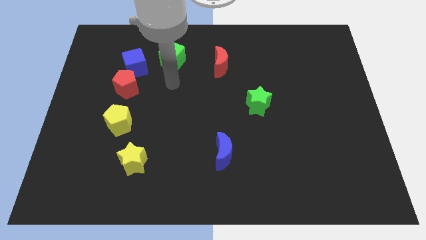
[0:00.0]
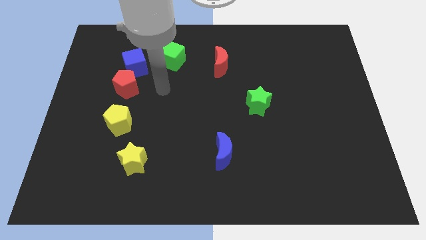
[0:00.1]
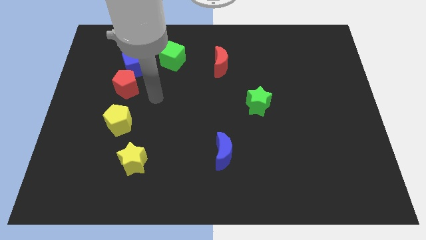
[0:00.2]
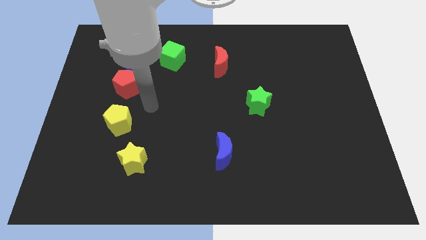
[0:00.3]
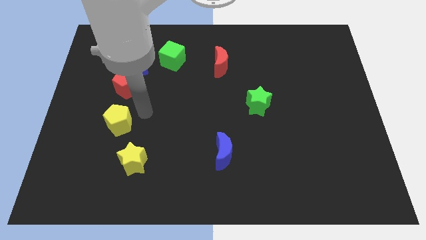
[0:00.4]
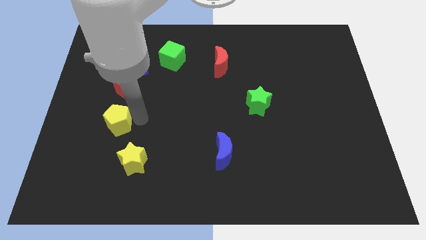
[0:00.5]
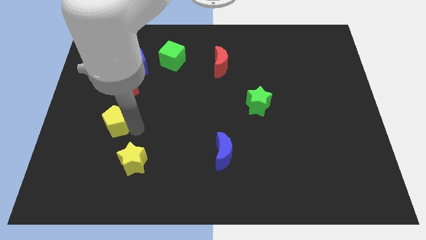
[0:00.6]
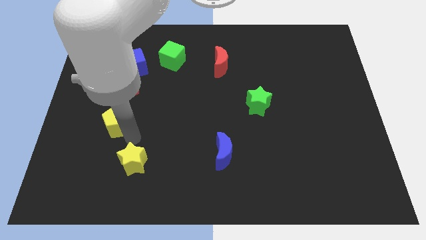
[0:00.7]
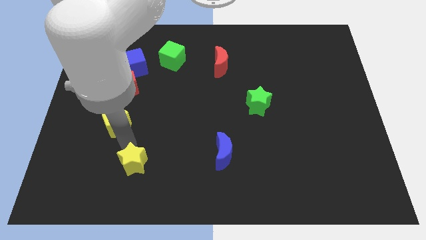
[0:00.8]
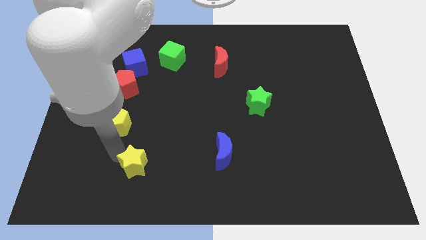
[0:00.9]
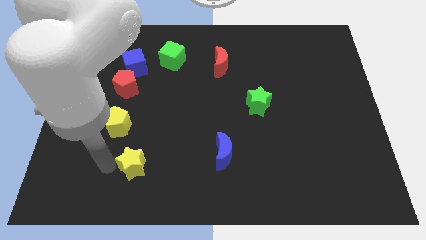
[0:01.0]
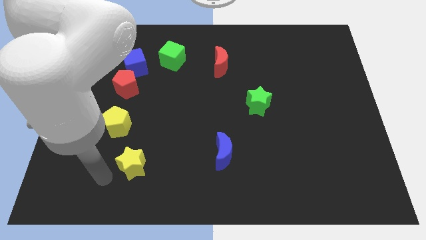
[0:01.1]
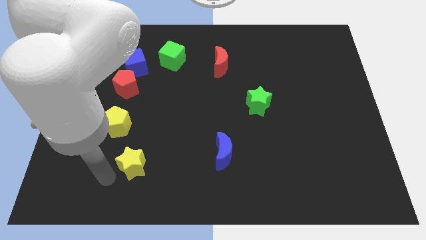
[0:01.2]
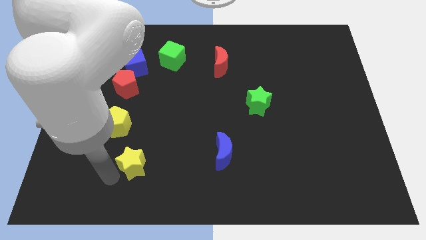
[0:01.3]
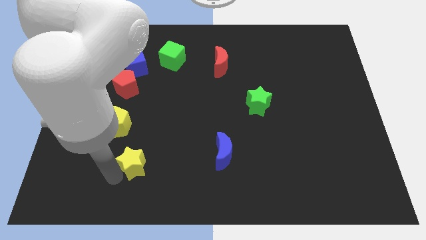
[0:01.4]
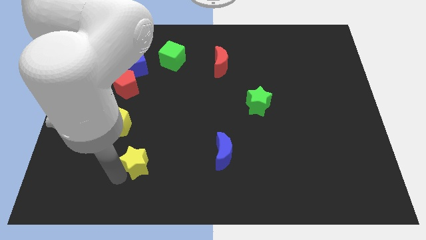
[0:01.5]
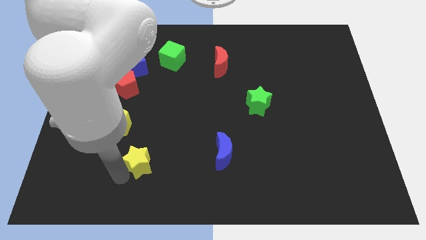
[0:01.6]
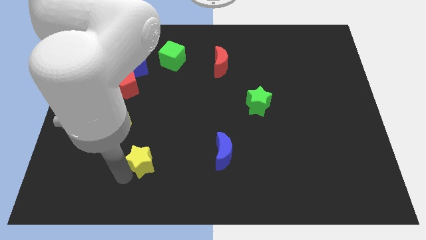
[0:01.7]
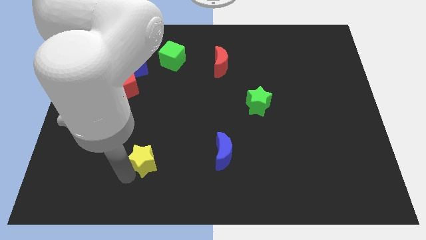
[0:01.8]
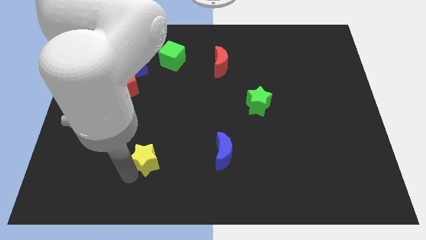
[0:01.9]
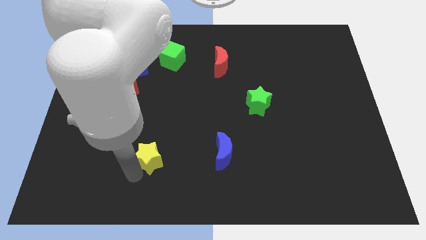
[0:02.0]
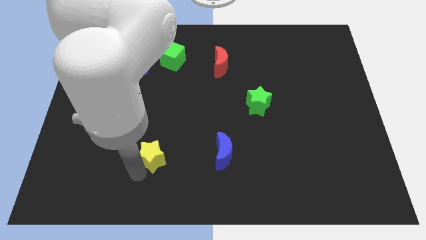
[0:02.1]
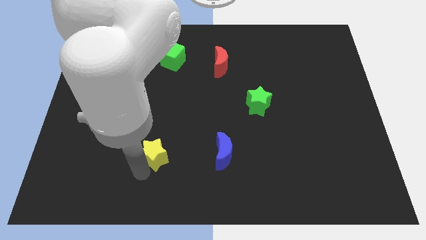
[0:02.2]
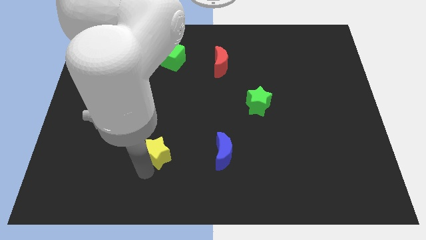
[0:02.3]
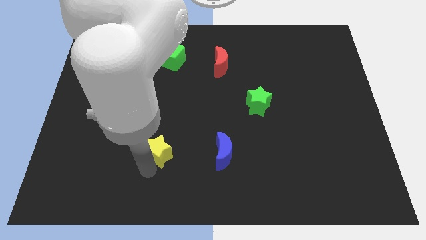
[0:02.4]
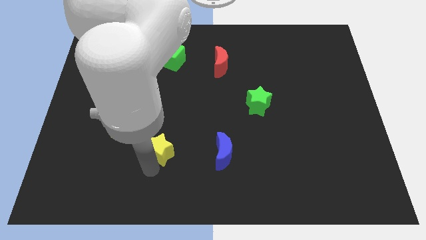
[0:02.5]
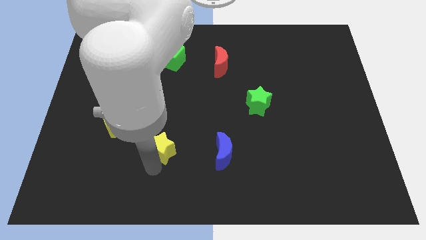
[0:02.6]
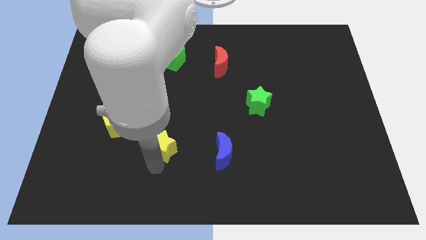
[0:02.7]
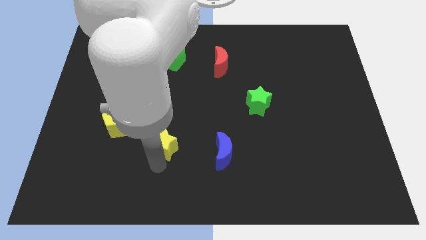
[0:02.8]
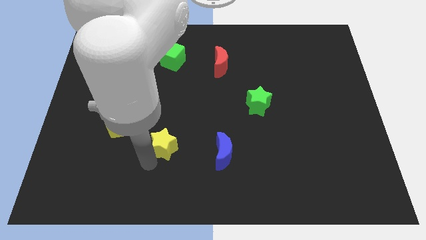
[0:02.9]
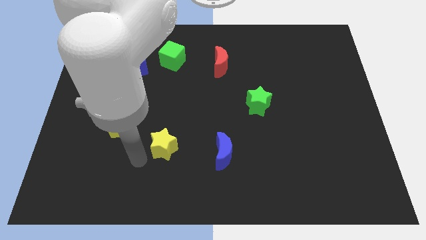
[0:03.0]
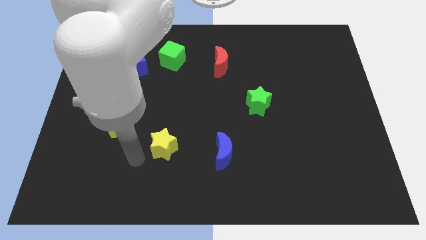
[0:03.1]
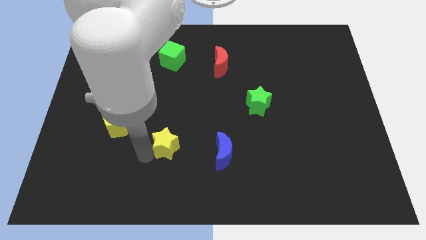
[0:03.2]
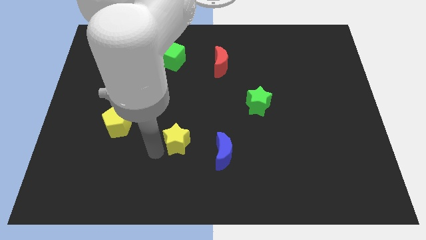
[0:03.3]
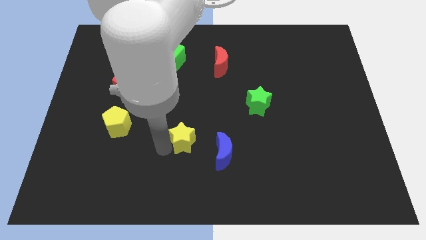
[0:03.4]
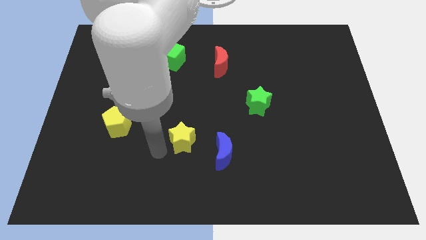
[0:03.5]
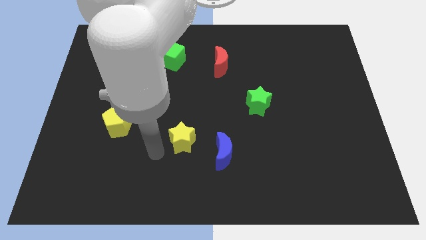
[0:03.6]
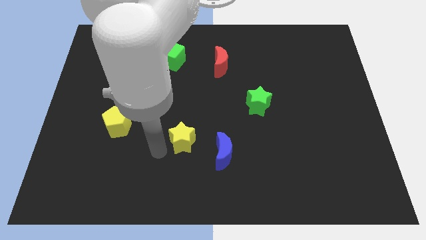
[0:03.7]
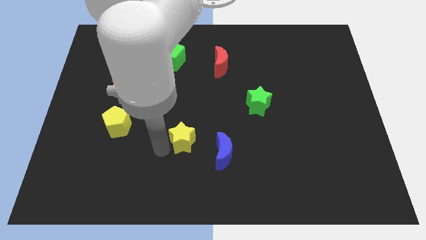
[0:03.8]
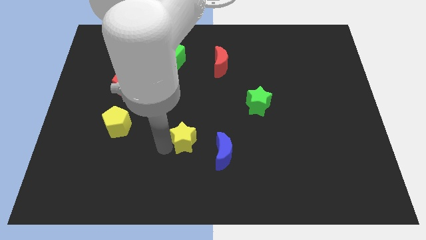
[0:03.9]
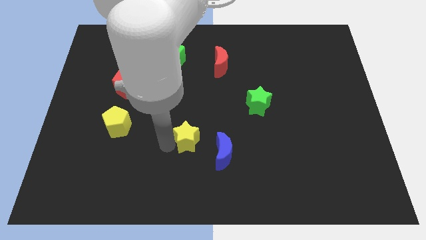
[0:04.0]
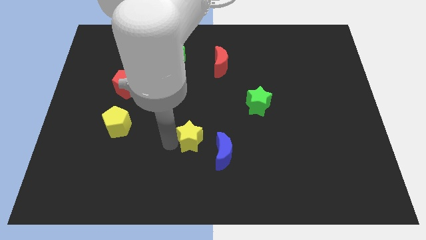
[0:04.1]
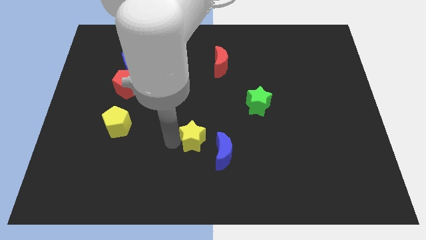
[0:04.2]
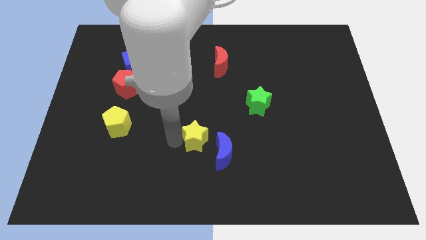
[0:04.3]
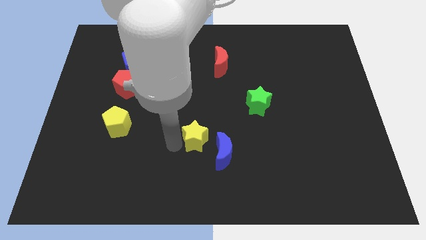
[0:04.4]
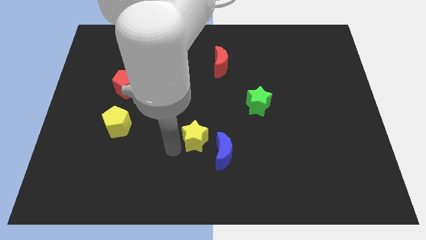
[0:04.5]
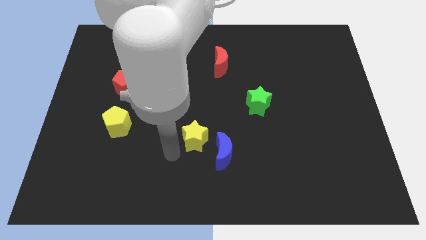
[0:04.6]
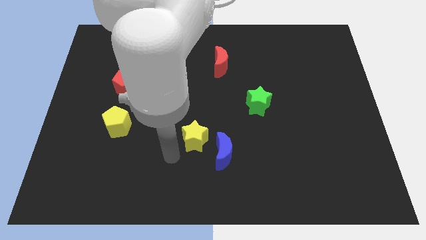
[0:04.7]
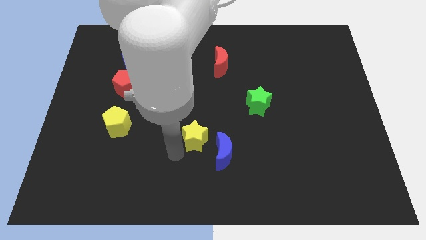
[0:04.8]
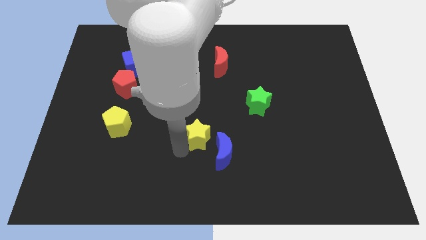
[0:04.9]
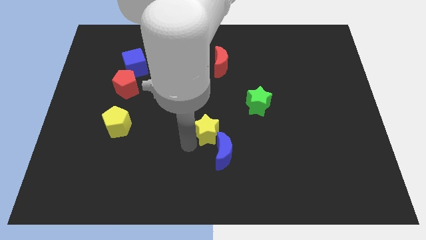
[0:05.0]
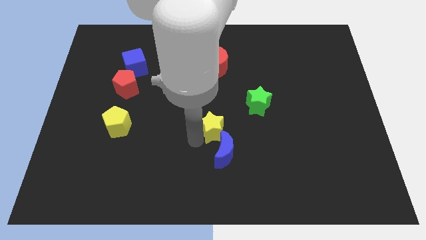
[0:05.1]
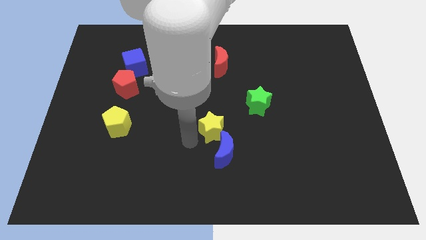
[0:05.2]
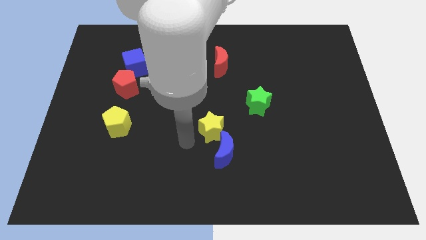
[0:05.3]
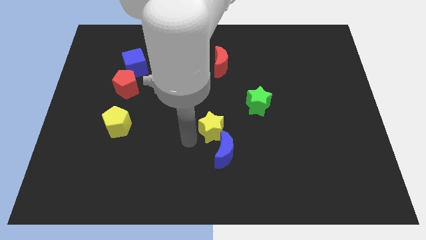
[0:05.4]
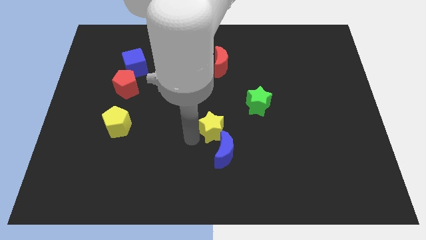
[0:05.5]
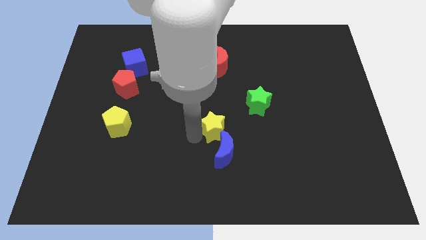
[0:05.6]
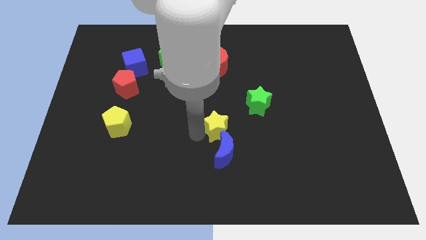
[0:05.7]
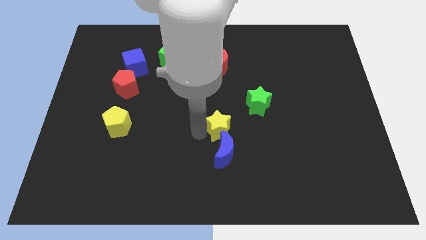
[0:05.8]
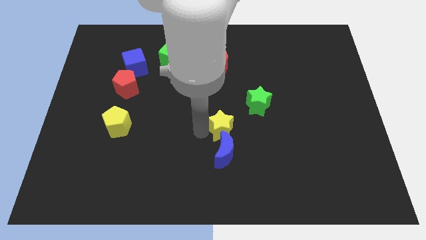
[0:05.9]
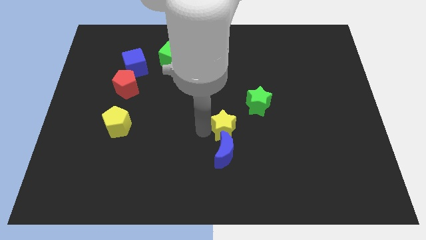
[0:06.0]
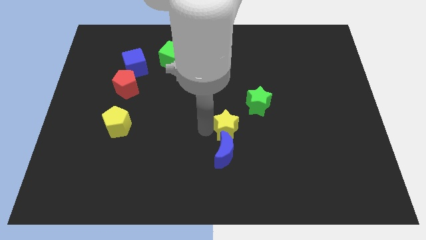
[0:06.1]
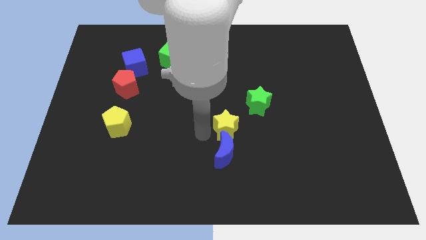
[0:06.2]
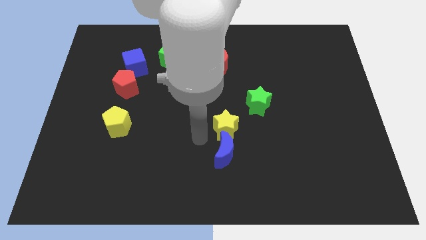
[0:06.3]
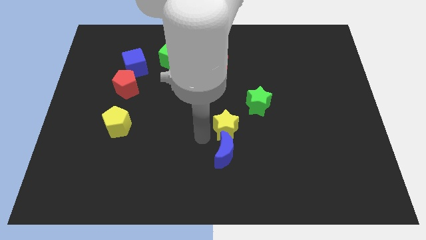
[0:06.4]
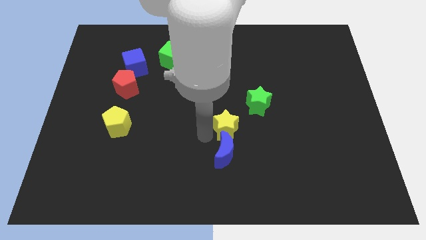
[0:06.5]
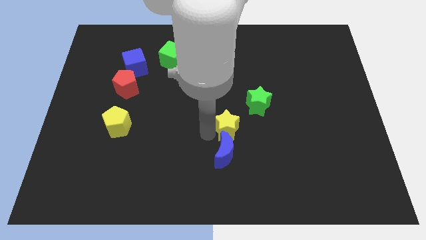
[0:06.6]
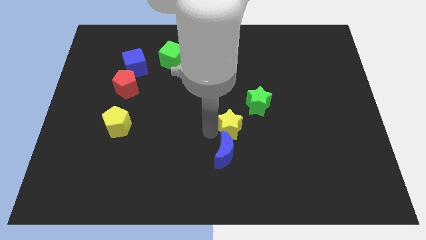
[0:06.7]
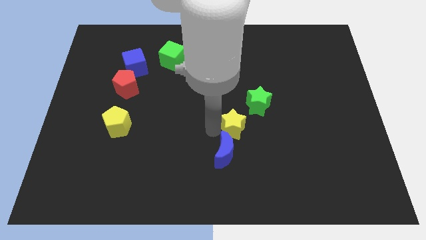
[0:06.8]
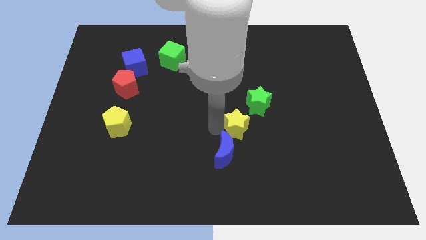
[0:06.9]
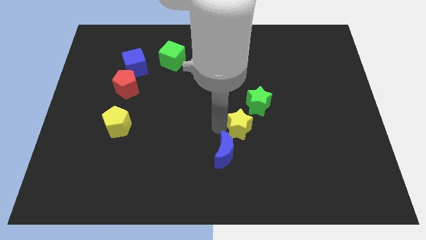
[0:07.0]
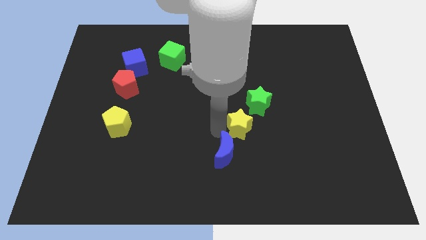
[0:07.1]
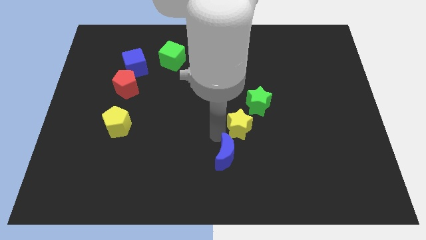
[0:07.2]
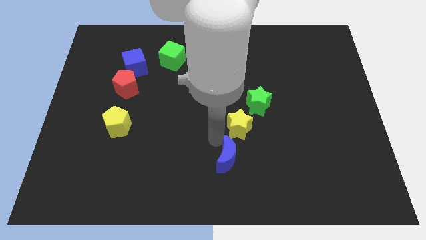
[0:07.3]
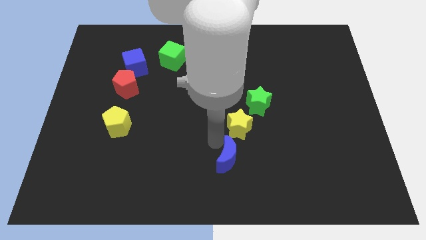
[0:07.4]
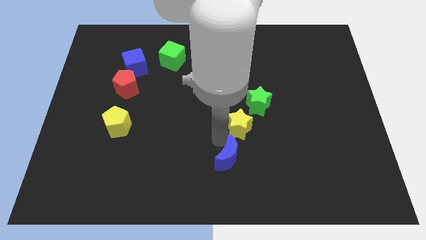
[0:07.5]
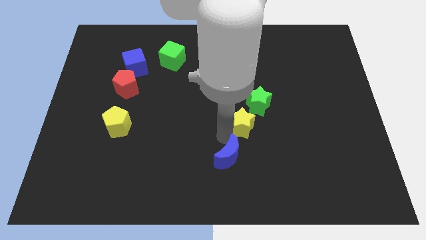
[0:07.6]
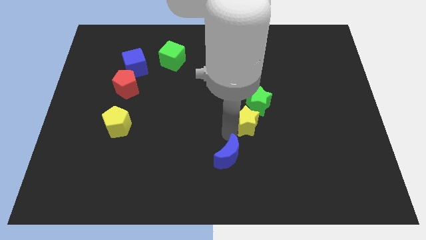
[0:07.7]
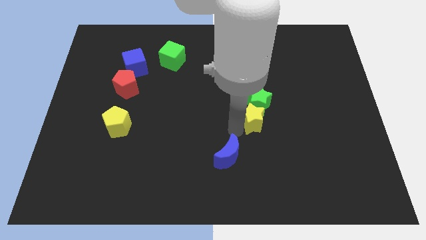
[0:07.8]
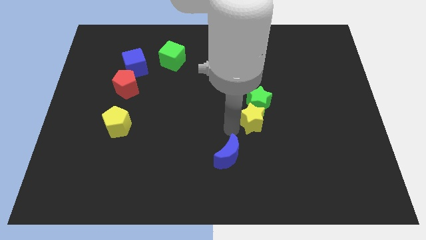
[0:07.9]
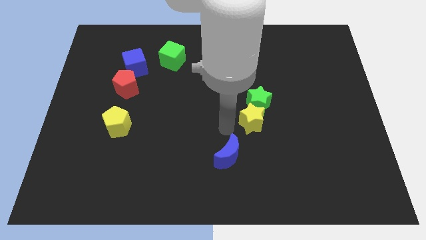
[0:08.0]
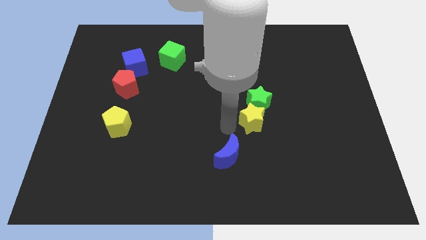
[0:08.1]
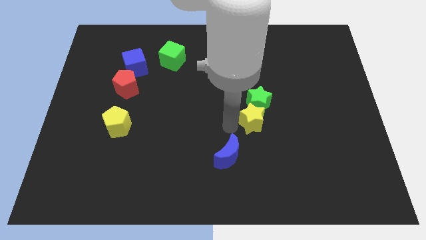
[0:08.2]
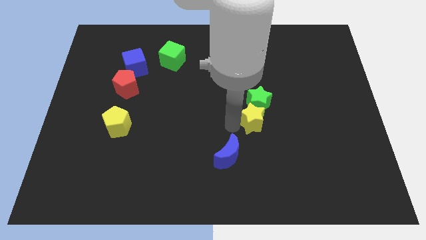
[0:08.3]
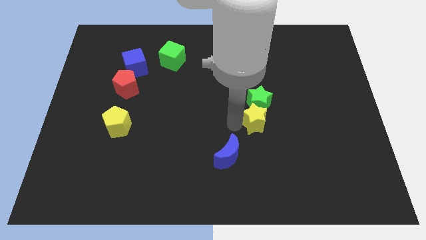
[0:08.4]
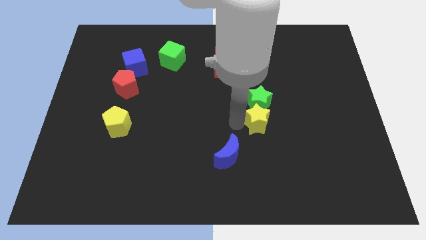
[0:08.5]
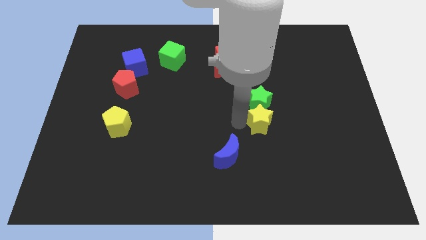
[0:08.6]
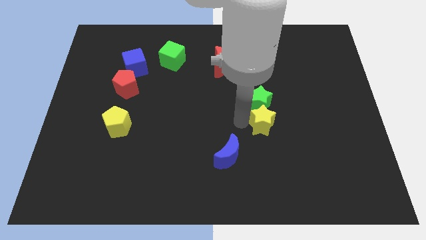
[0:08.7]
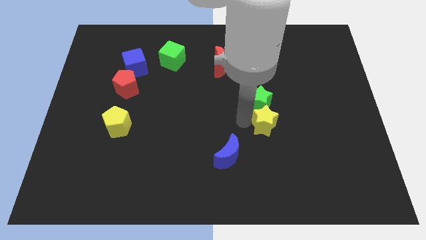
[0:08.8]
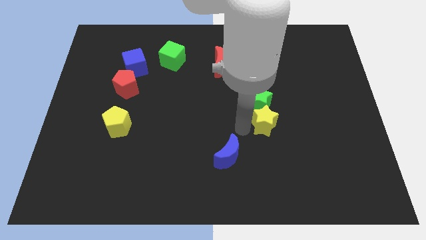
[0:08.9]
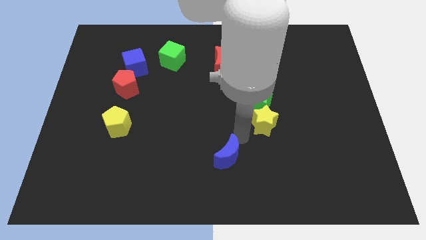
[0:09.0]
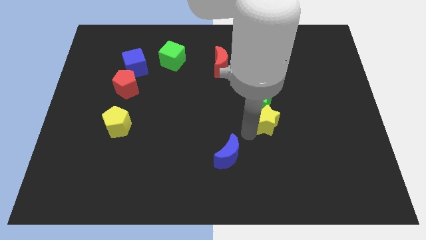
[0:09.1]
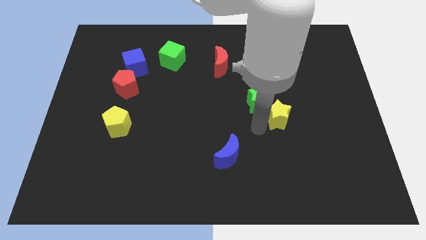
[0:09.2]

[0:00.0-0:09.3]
push the yellow star to the right side of the green star
